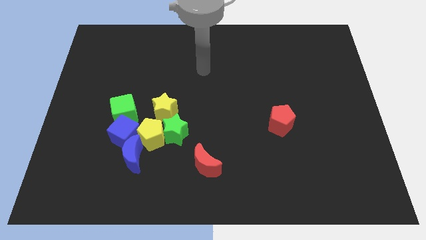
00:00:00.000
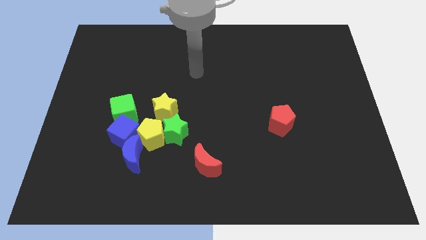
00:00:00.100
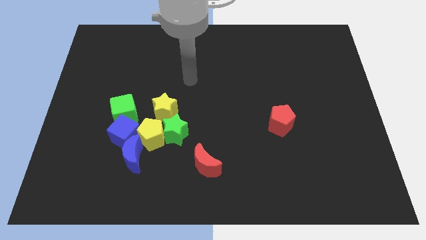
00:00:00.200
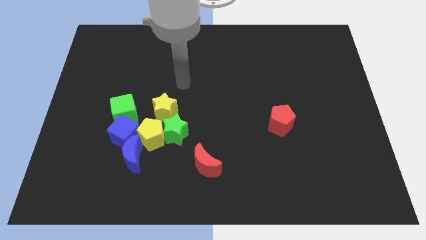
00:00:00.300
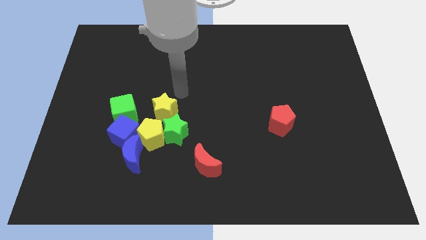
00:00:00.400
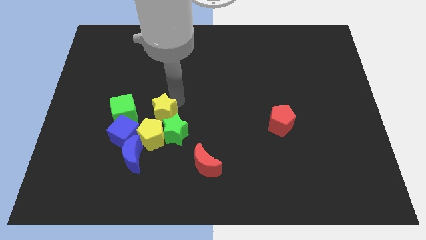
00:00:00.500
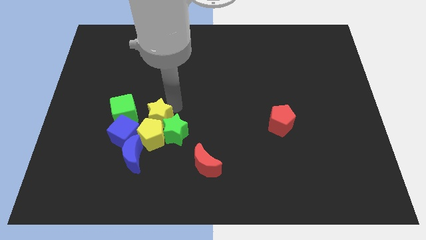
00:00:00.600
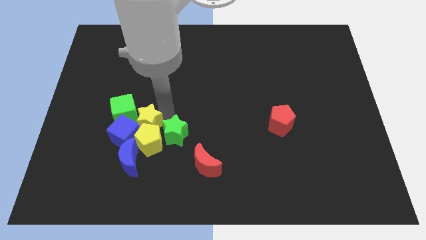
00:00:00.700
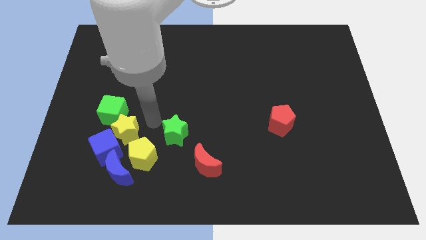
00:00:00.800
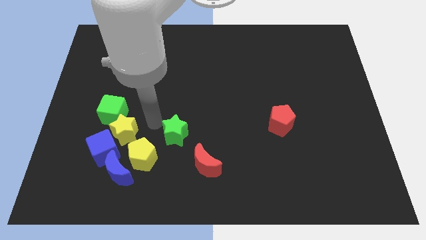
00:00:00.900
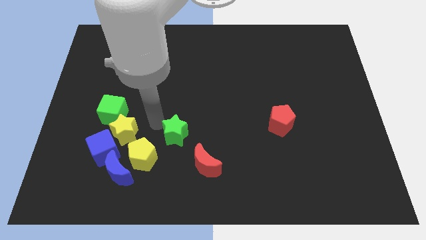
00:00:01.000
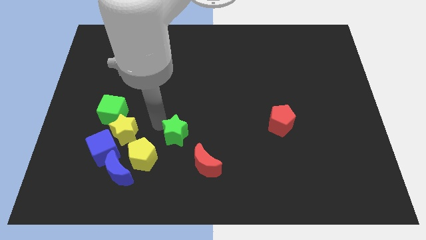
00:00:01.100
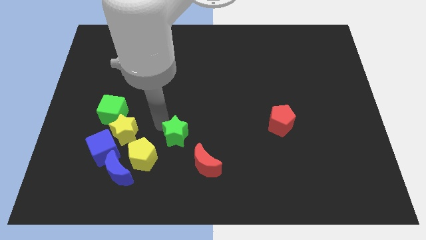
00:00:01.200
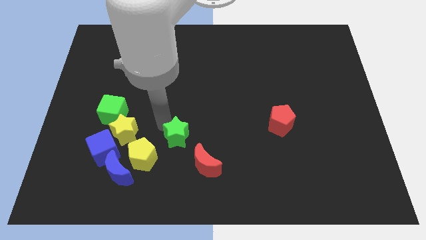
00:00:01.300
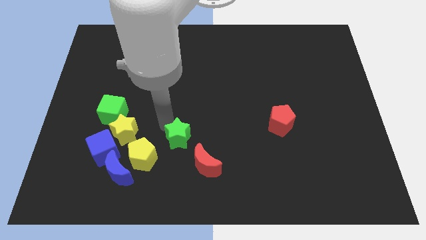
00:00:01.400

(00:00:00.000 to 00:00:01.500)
move the green star away from the yellow pentagon and yellow star

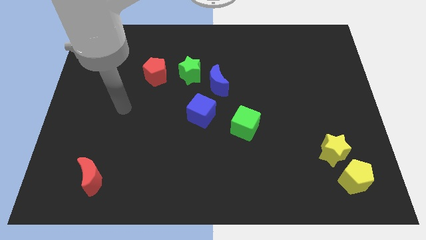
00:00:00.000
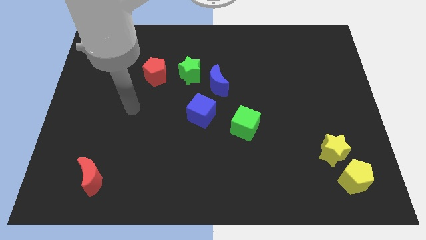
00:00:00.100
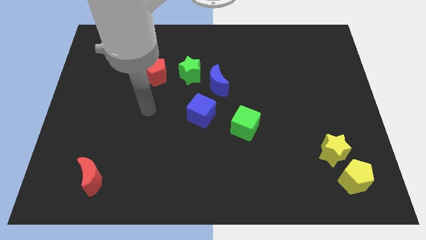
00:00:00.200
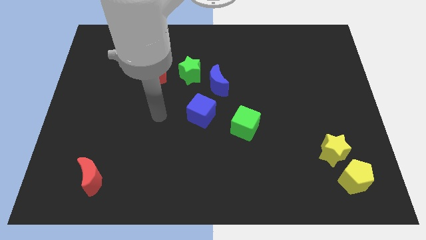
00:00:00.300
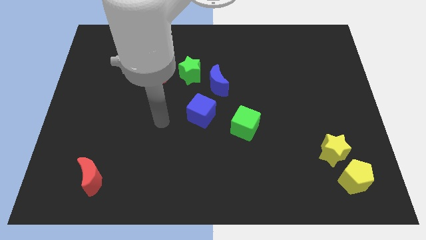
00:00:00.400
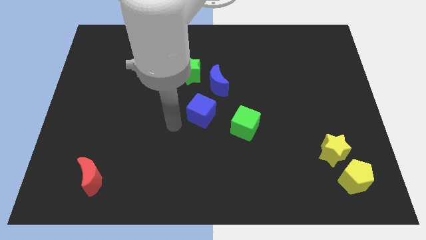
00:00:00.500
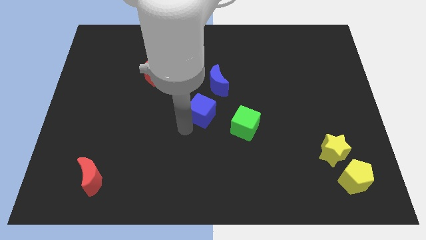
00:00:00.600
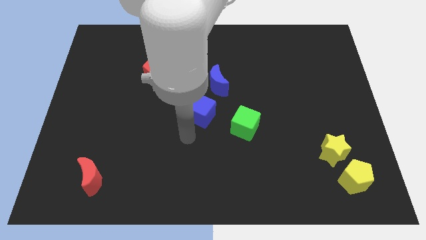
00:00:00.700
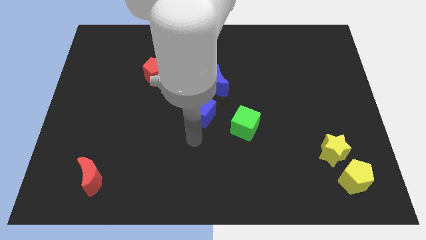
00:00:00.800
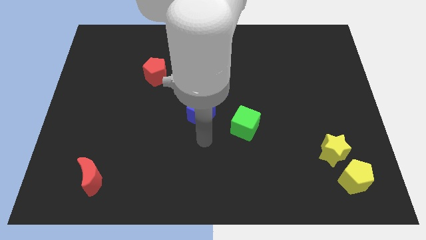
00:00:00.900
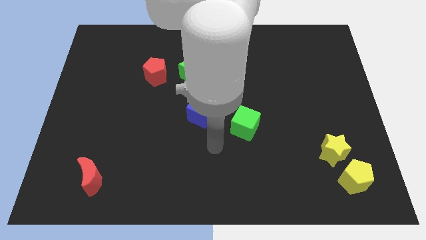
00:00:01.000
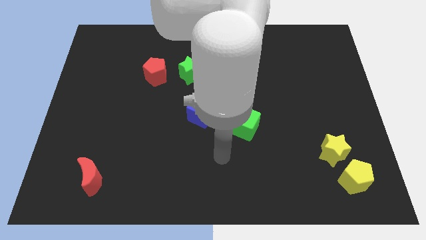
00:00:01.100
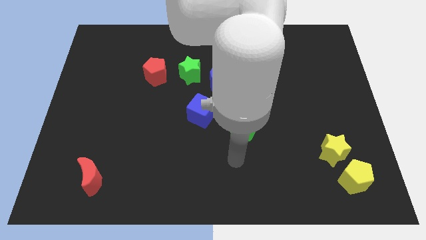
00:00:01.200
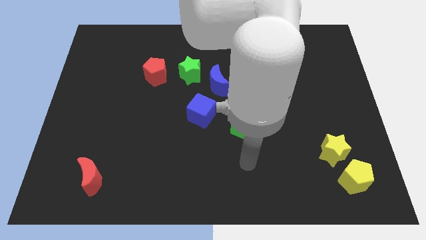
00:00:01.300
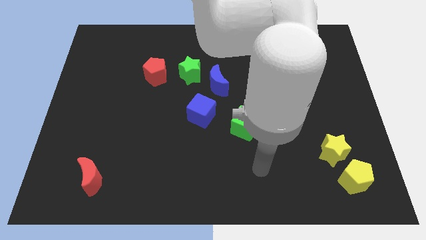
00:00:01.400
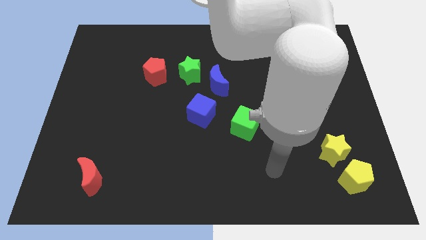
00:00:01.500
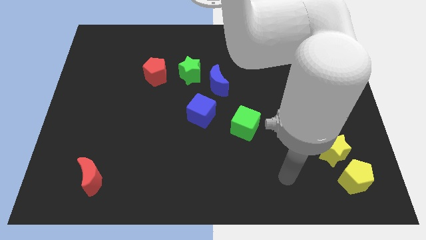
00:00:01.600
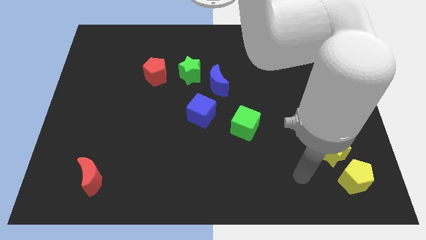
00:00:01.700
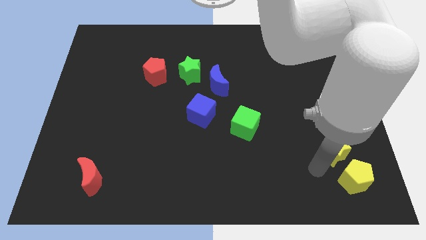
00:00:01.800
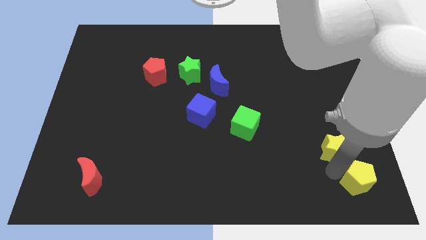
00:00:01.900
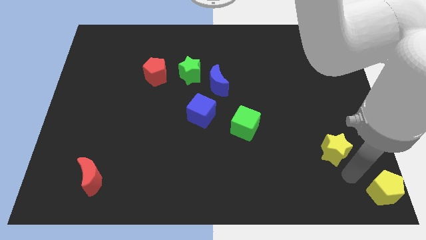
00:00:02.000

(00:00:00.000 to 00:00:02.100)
move the yellow star away from the yellow pentagon

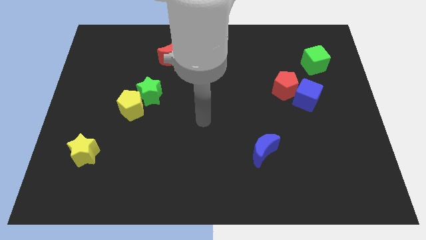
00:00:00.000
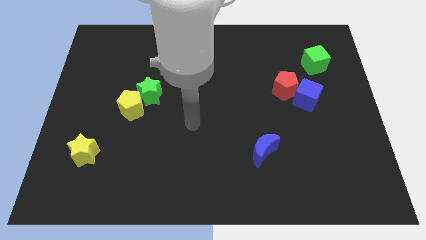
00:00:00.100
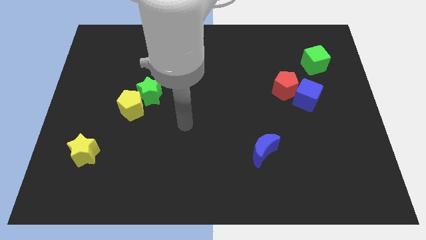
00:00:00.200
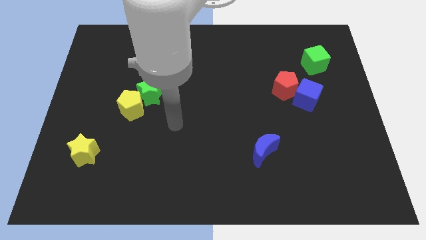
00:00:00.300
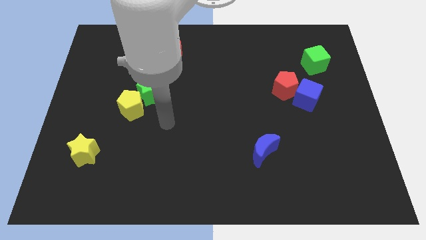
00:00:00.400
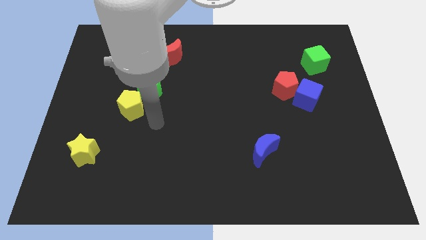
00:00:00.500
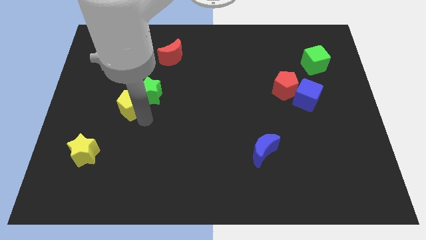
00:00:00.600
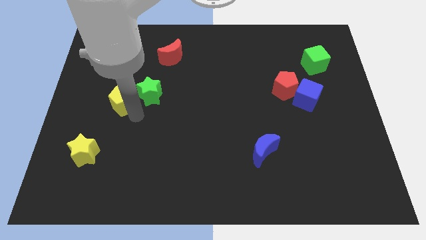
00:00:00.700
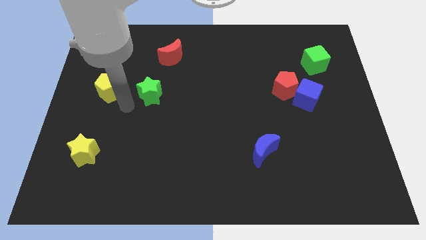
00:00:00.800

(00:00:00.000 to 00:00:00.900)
pull the green star apart from the yellow pentagon

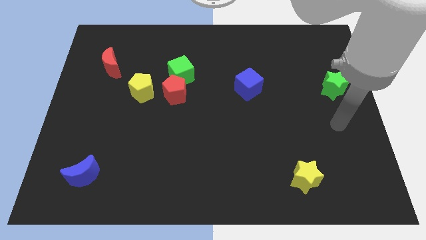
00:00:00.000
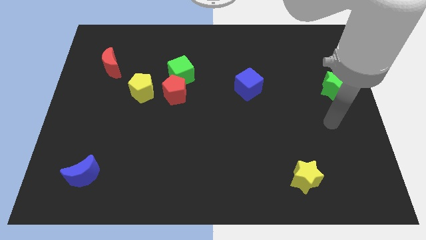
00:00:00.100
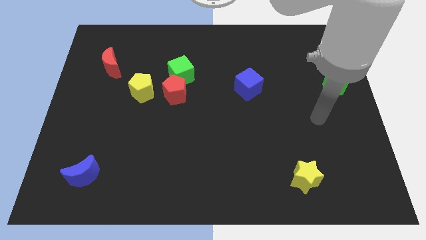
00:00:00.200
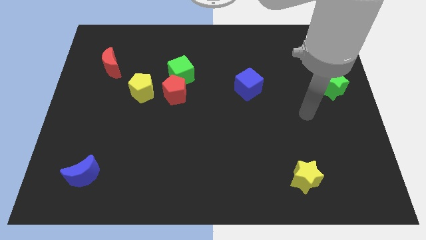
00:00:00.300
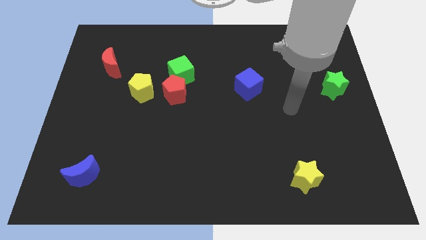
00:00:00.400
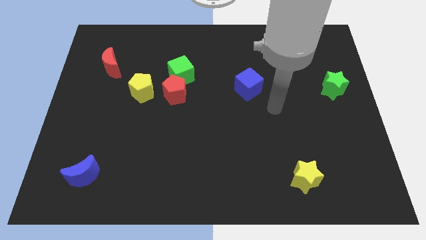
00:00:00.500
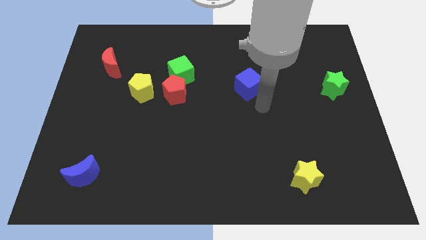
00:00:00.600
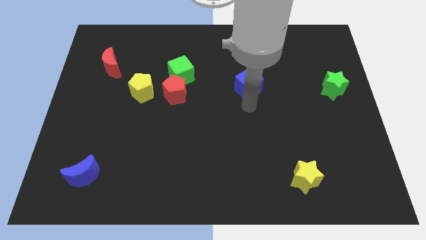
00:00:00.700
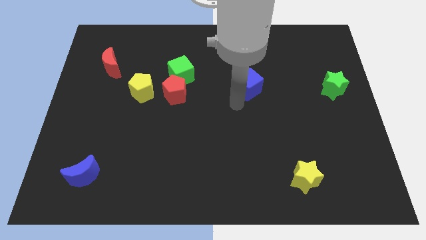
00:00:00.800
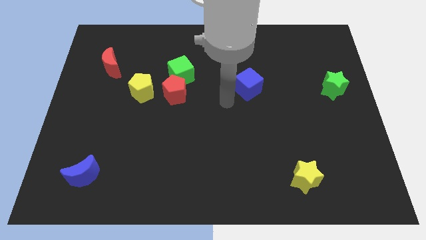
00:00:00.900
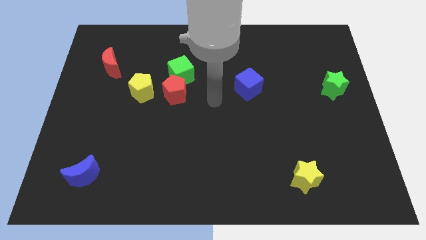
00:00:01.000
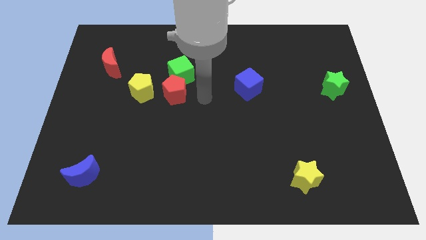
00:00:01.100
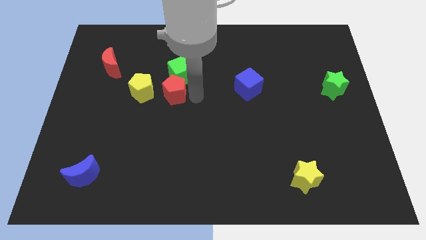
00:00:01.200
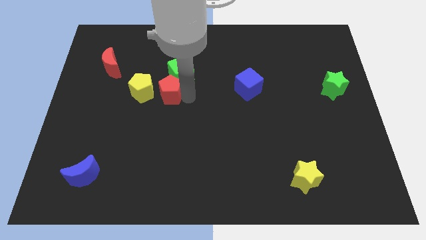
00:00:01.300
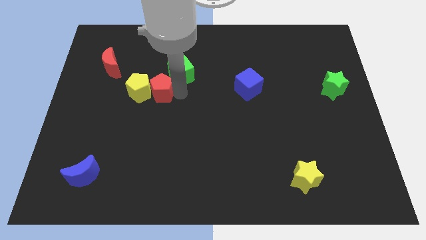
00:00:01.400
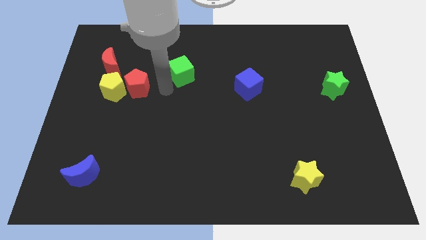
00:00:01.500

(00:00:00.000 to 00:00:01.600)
pull the green cube apart from the red pentagon

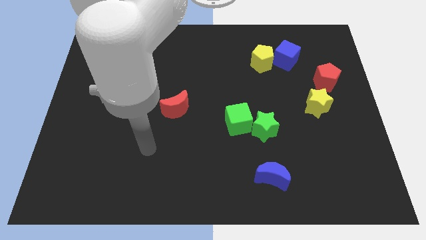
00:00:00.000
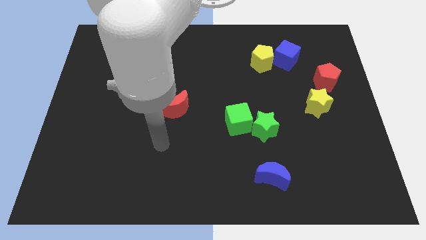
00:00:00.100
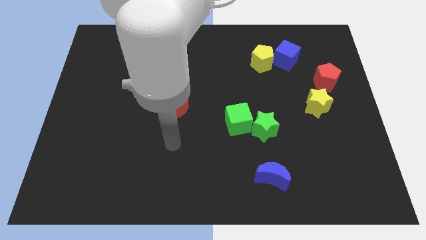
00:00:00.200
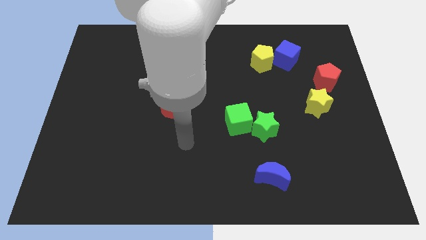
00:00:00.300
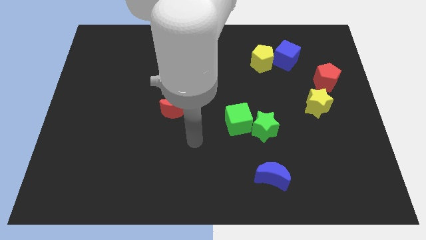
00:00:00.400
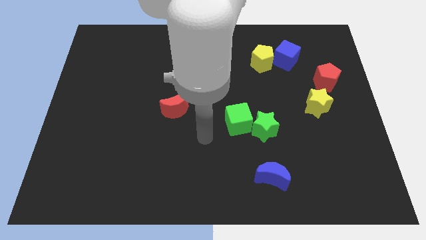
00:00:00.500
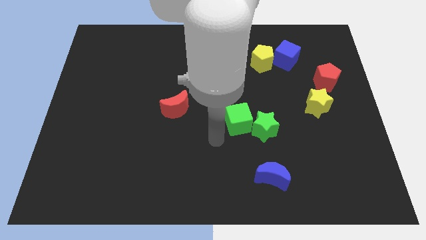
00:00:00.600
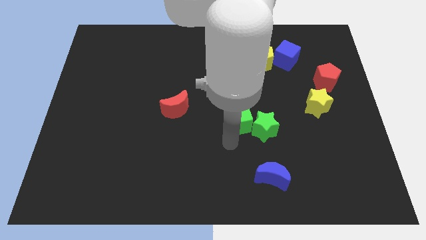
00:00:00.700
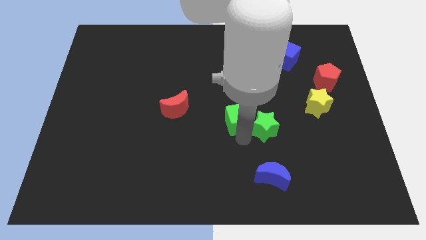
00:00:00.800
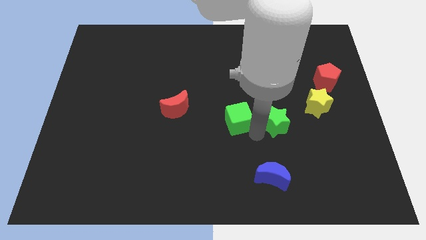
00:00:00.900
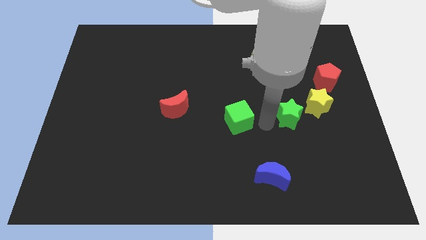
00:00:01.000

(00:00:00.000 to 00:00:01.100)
move the green cube away from the green star

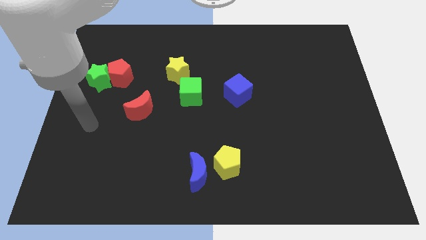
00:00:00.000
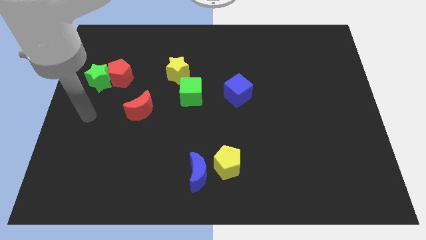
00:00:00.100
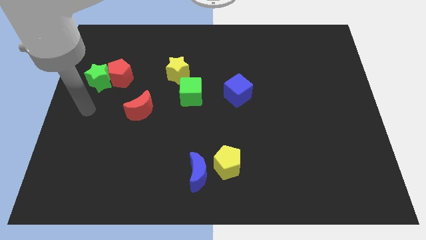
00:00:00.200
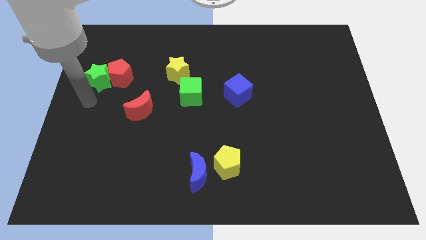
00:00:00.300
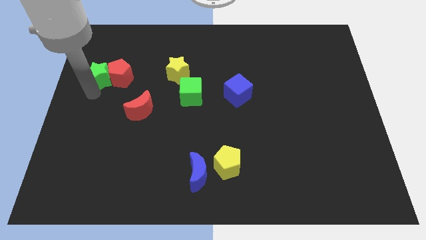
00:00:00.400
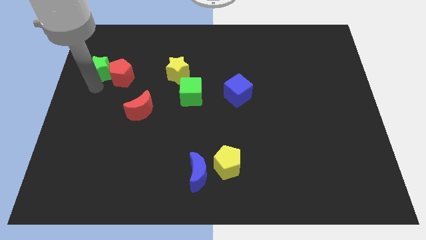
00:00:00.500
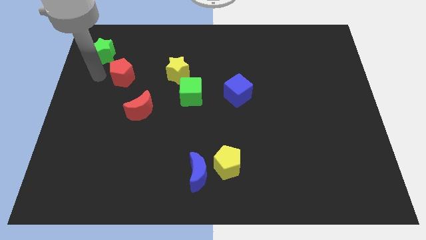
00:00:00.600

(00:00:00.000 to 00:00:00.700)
pull the red pentagon apart from the green star

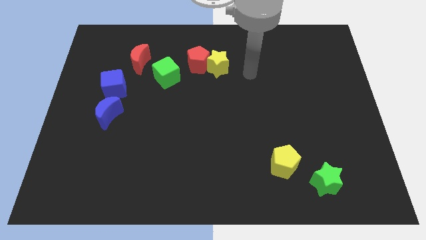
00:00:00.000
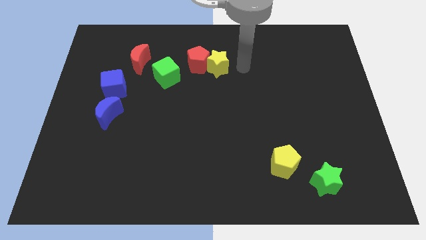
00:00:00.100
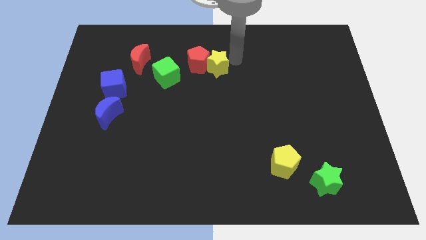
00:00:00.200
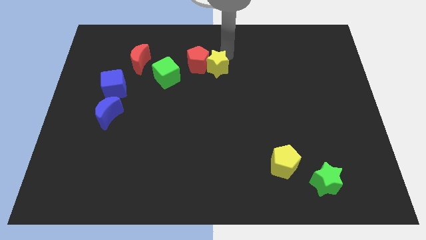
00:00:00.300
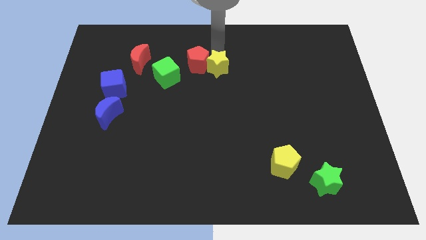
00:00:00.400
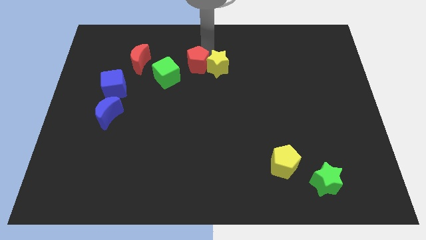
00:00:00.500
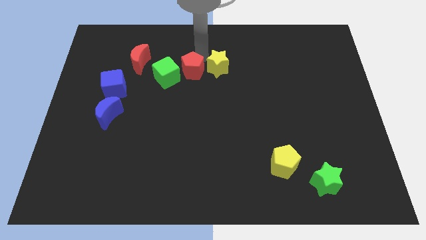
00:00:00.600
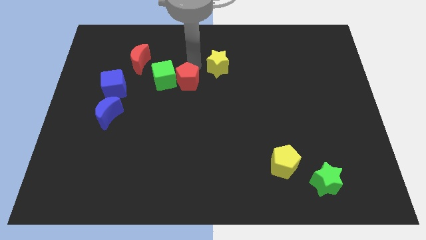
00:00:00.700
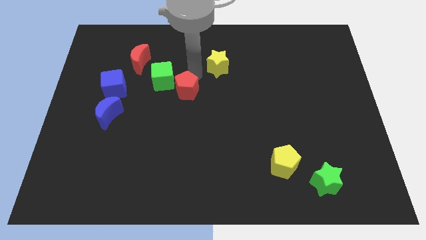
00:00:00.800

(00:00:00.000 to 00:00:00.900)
pull the yellow star apart from the red pentagon

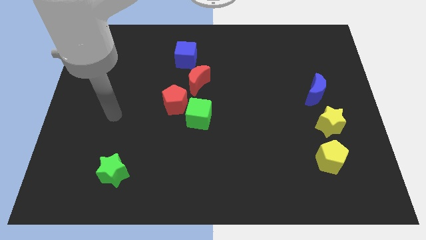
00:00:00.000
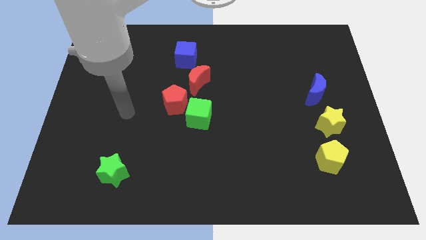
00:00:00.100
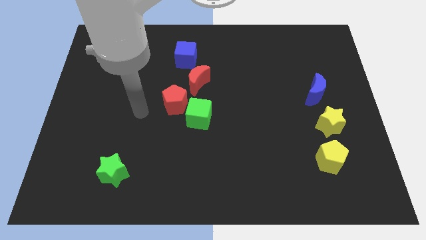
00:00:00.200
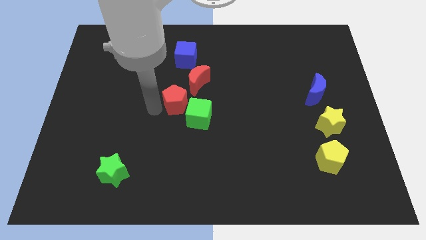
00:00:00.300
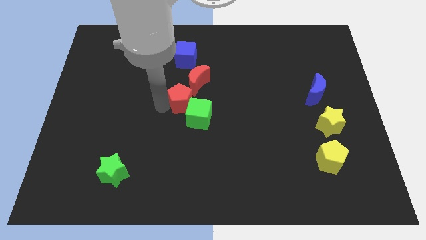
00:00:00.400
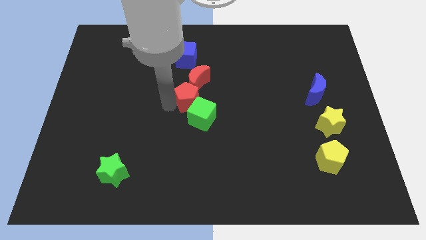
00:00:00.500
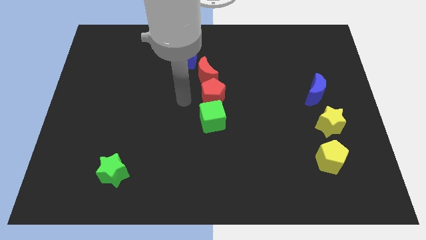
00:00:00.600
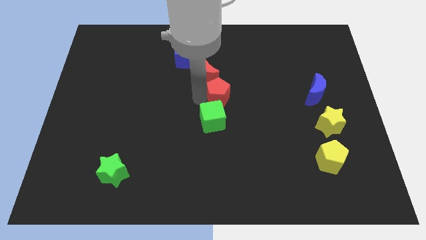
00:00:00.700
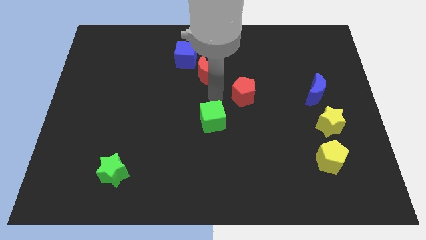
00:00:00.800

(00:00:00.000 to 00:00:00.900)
separate the green cube from the red pentagon
